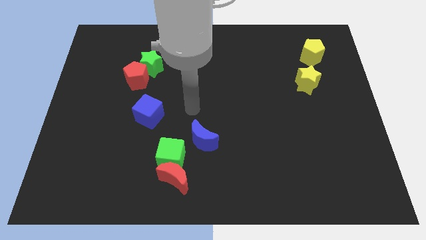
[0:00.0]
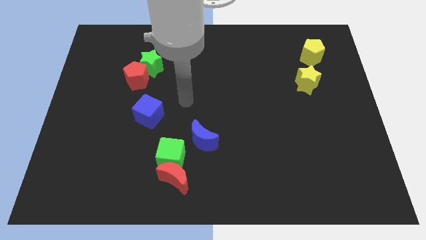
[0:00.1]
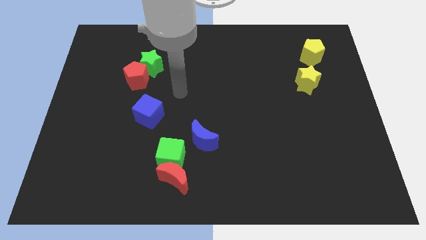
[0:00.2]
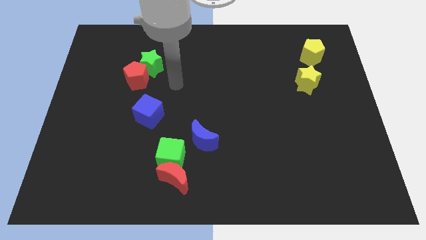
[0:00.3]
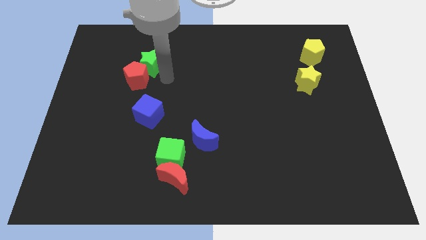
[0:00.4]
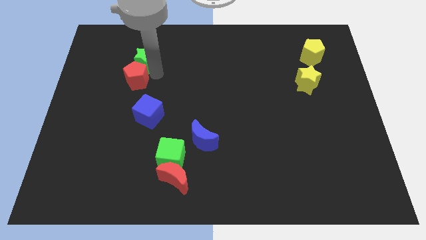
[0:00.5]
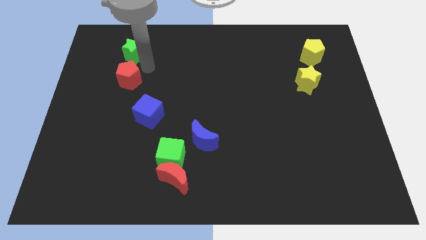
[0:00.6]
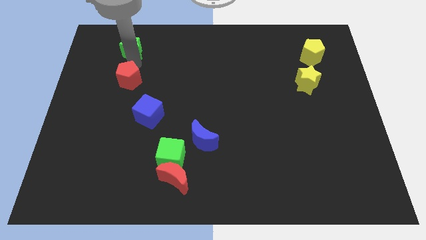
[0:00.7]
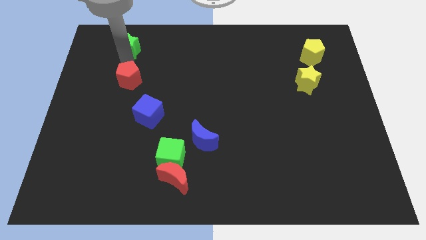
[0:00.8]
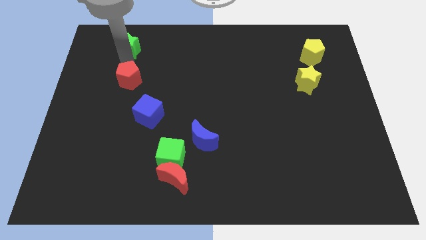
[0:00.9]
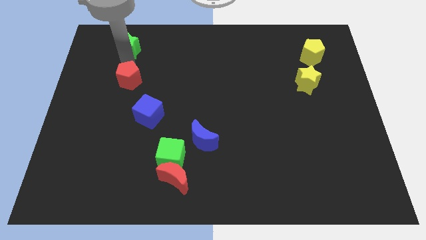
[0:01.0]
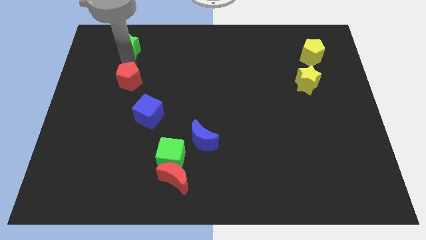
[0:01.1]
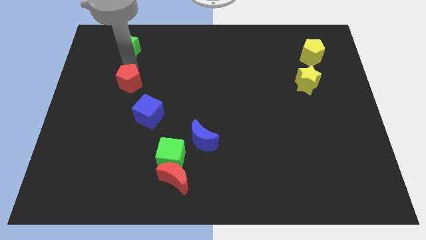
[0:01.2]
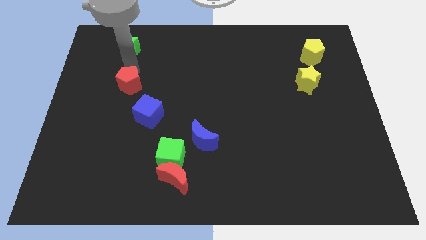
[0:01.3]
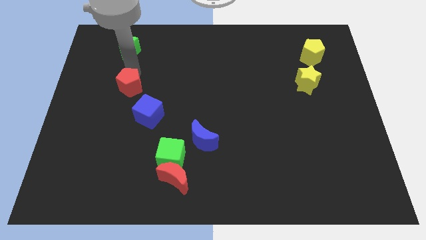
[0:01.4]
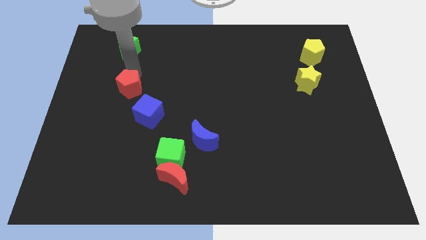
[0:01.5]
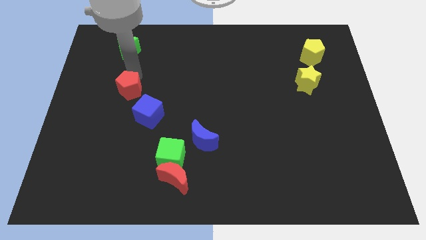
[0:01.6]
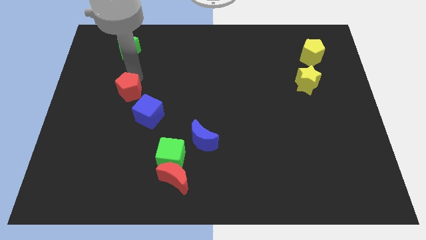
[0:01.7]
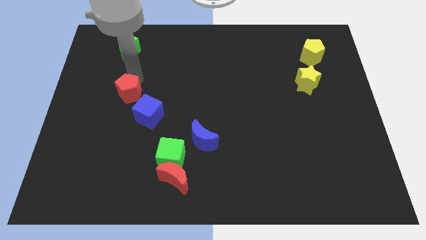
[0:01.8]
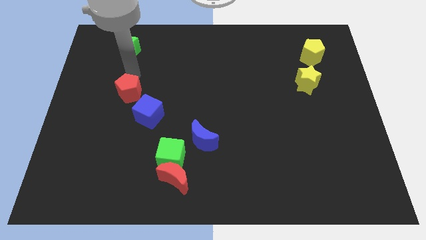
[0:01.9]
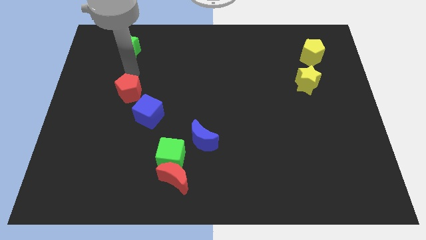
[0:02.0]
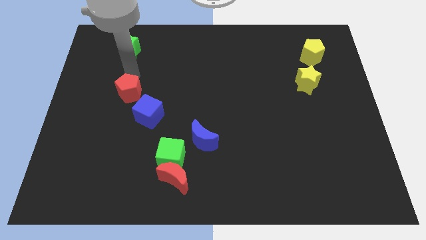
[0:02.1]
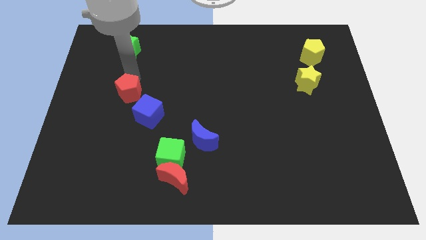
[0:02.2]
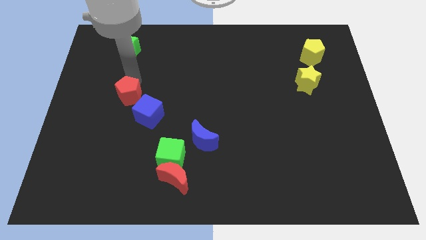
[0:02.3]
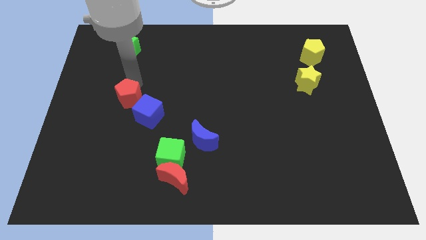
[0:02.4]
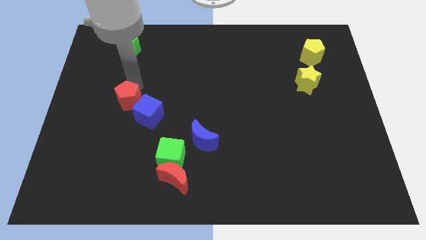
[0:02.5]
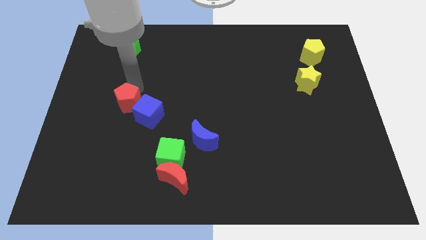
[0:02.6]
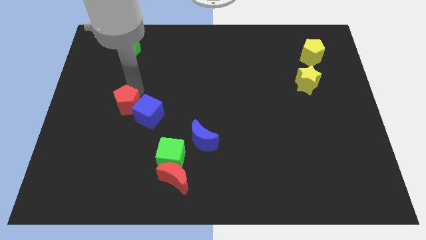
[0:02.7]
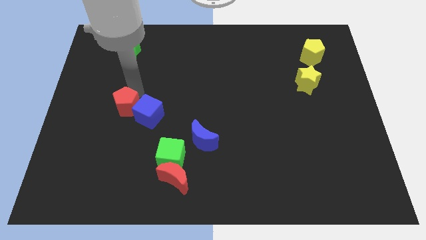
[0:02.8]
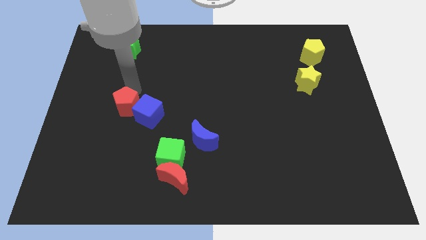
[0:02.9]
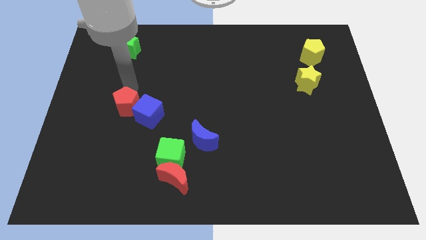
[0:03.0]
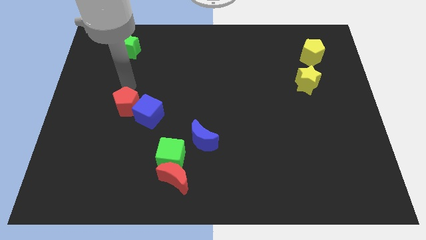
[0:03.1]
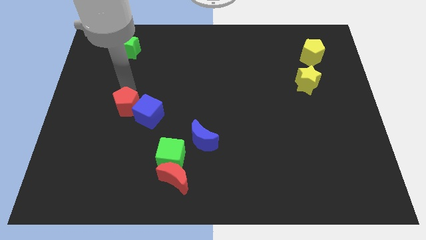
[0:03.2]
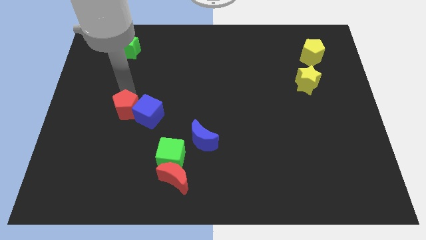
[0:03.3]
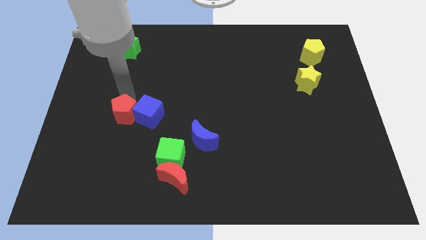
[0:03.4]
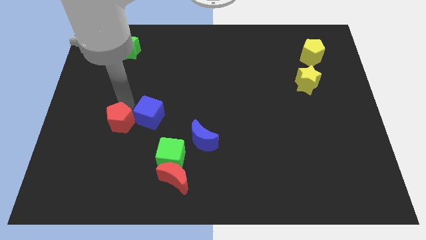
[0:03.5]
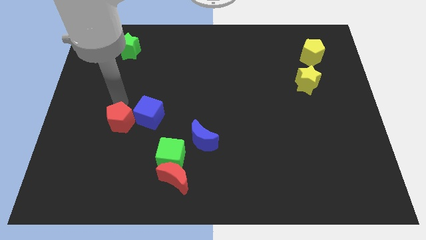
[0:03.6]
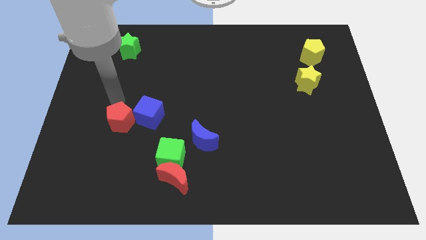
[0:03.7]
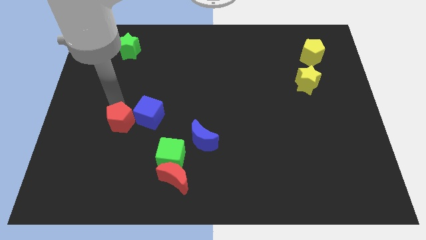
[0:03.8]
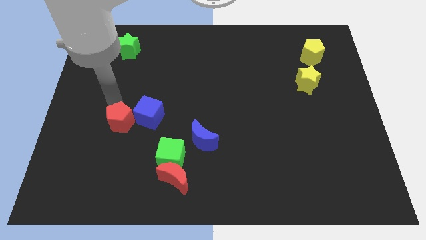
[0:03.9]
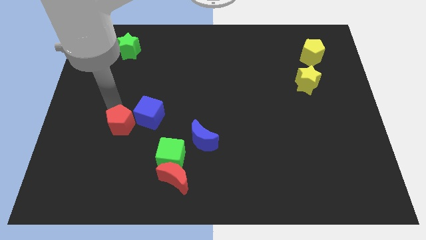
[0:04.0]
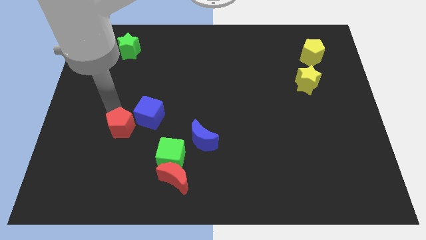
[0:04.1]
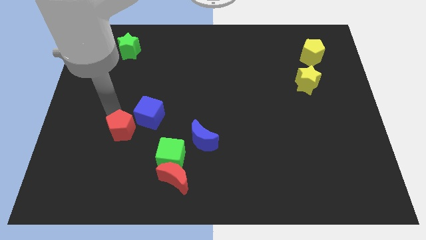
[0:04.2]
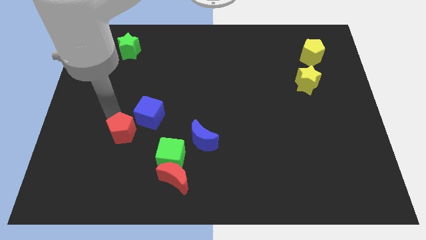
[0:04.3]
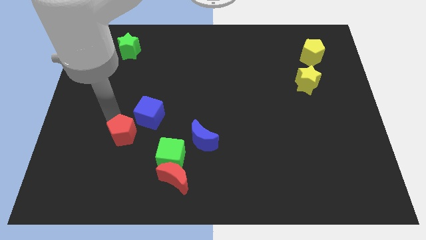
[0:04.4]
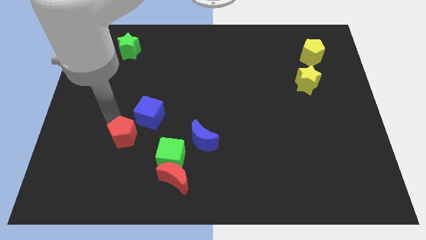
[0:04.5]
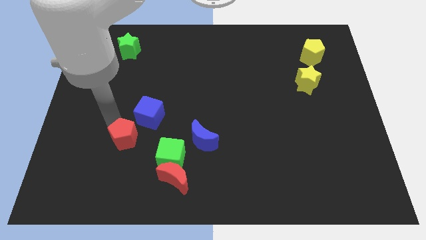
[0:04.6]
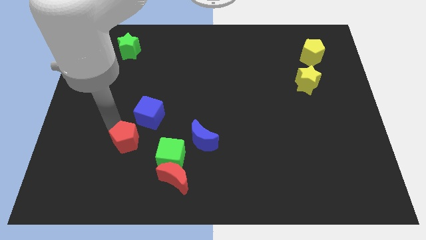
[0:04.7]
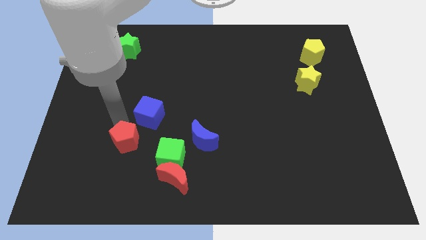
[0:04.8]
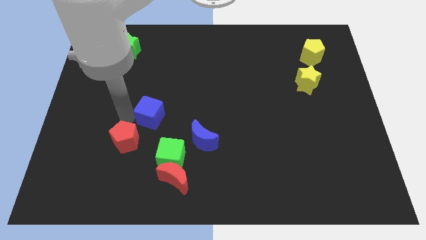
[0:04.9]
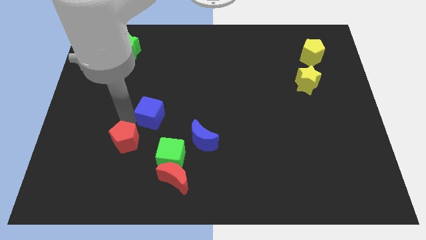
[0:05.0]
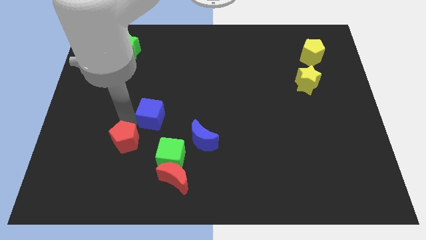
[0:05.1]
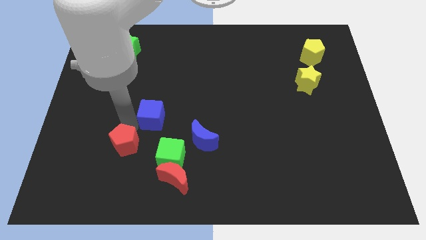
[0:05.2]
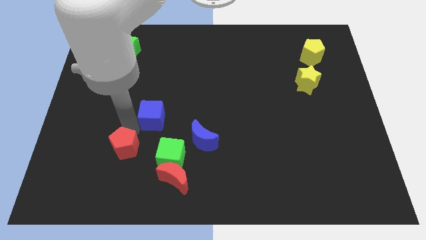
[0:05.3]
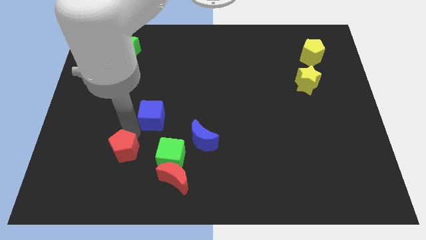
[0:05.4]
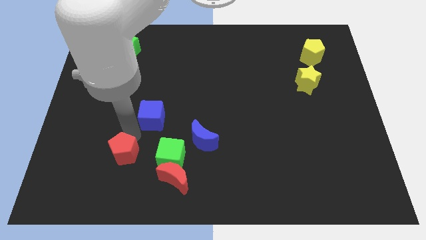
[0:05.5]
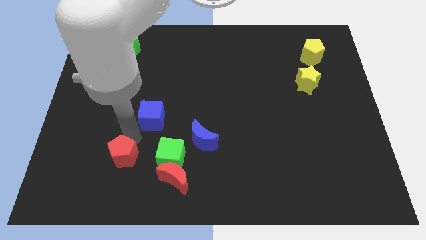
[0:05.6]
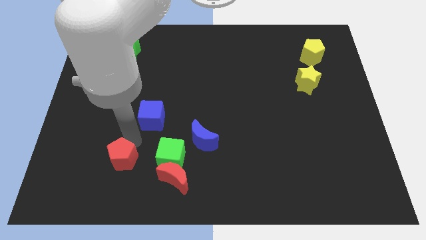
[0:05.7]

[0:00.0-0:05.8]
push the red pentagon to the left side of the red moon

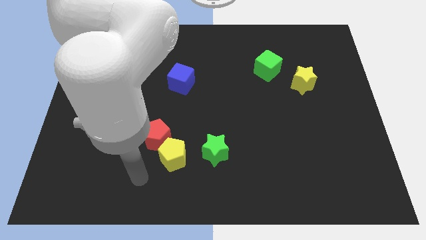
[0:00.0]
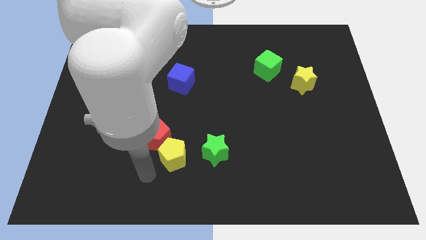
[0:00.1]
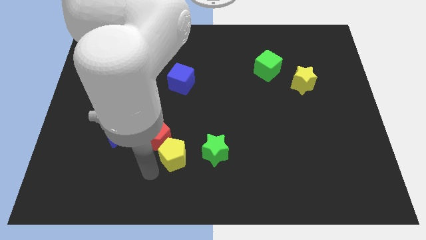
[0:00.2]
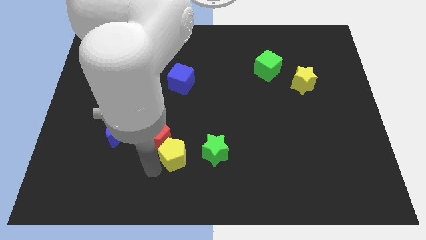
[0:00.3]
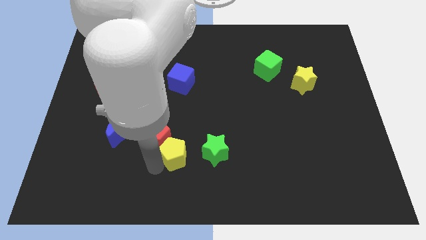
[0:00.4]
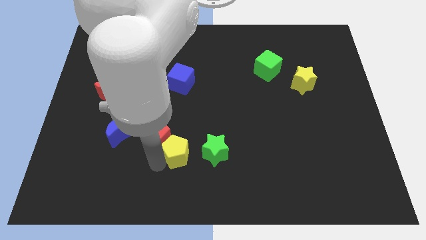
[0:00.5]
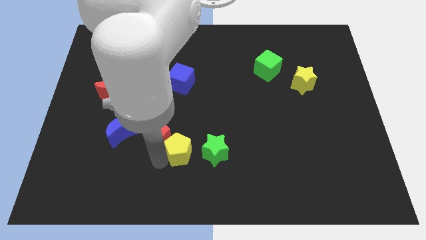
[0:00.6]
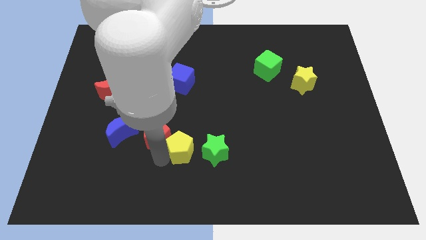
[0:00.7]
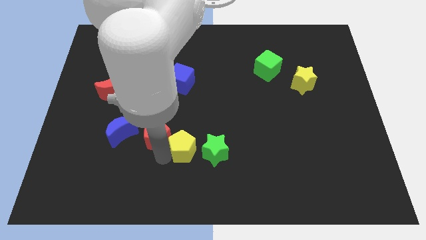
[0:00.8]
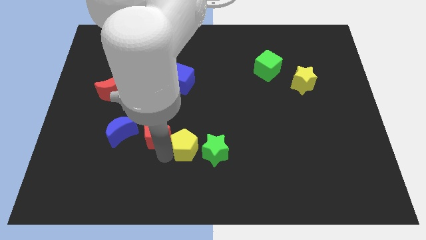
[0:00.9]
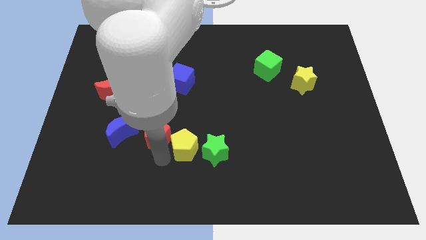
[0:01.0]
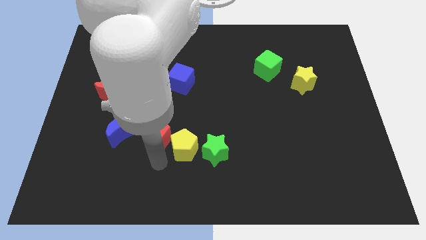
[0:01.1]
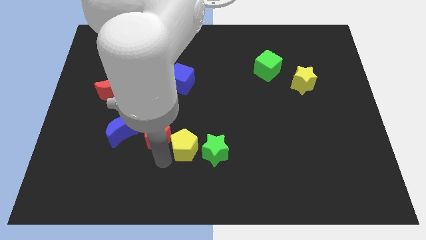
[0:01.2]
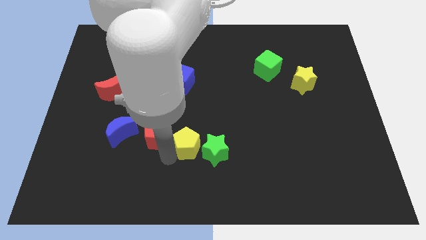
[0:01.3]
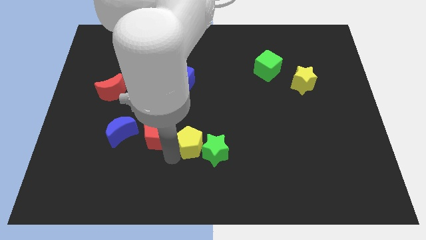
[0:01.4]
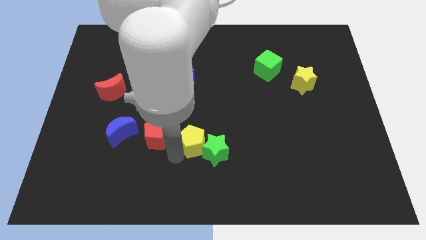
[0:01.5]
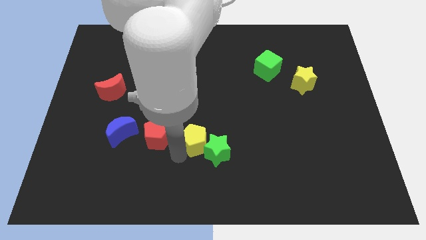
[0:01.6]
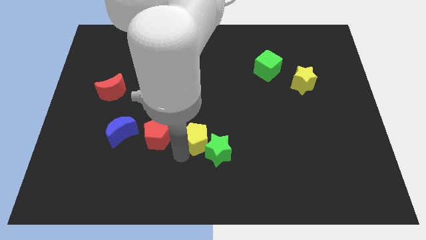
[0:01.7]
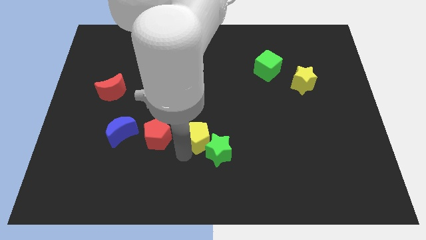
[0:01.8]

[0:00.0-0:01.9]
move the yellow pentagon to the top of the green star
